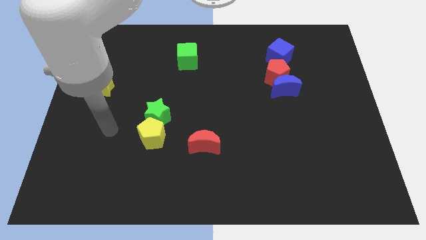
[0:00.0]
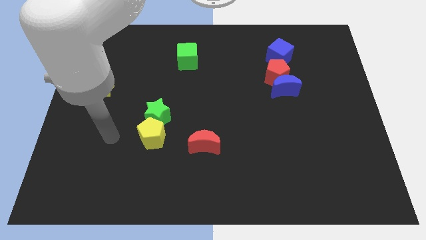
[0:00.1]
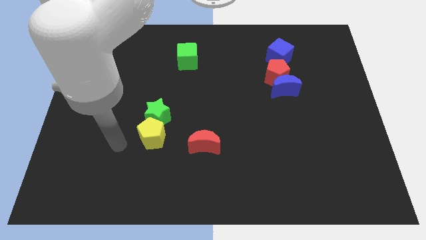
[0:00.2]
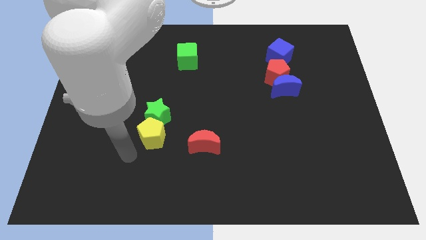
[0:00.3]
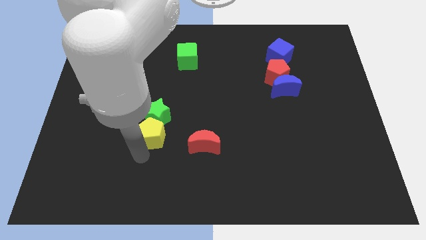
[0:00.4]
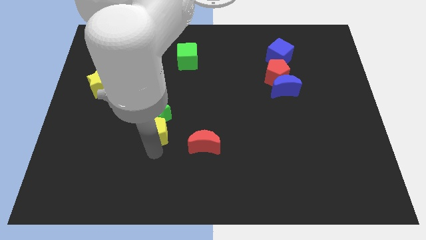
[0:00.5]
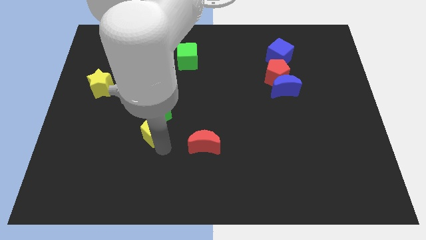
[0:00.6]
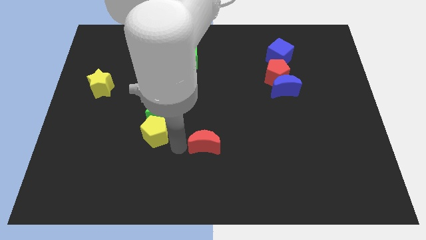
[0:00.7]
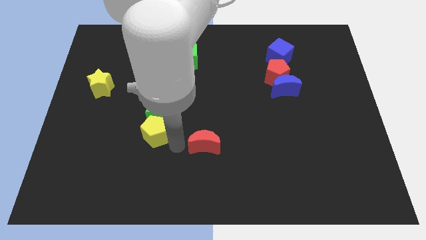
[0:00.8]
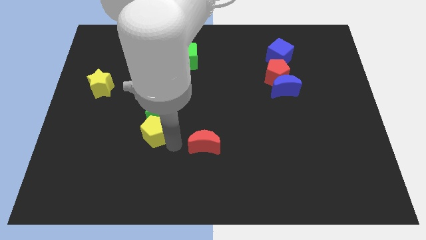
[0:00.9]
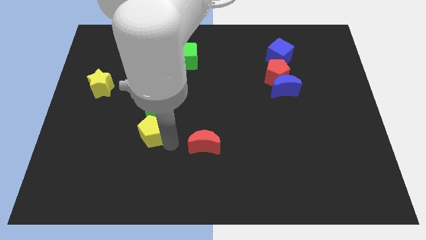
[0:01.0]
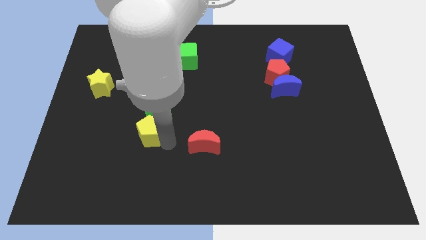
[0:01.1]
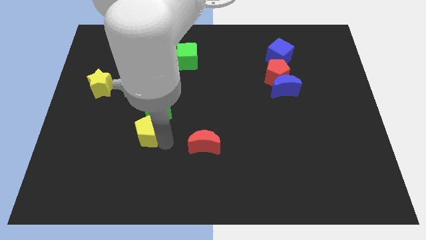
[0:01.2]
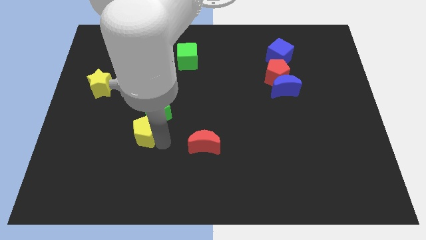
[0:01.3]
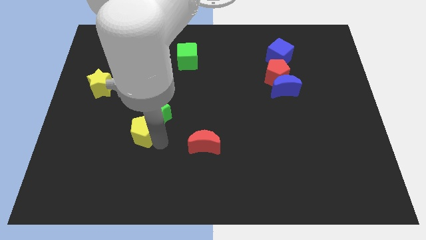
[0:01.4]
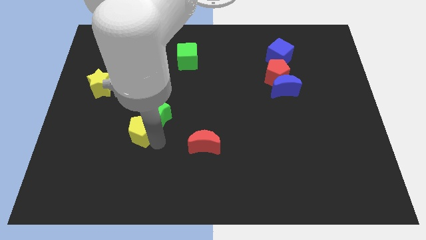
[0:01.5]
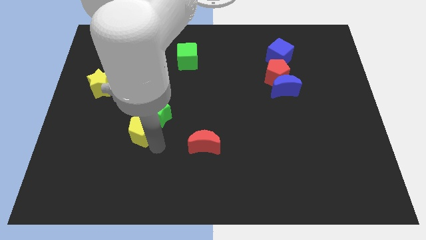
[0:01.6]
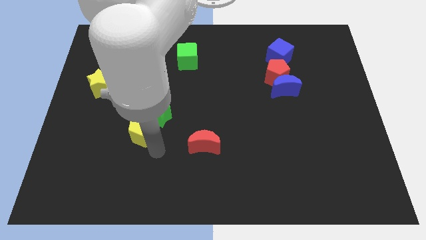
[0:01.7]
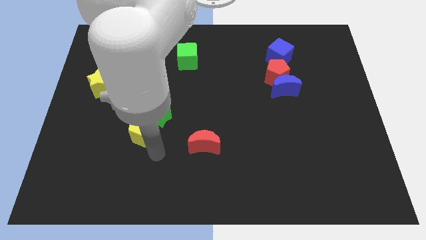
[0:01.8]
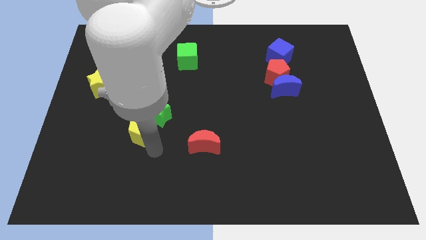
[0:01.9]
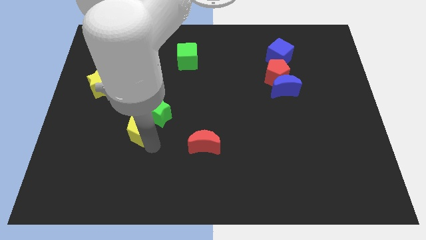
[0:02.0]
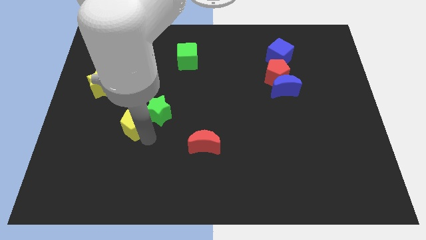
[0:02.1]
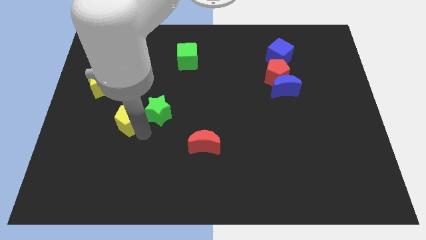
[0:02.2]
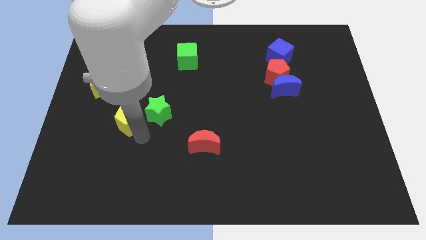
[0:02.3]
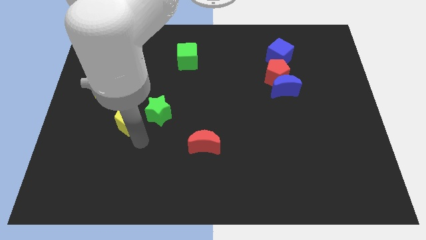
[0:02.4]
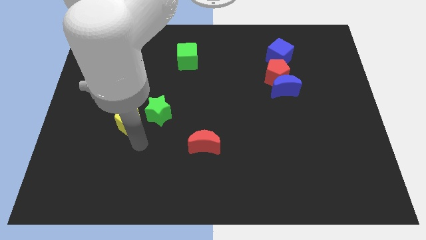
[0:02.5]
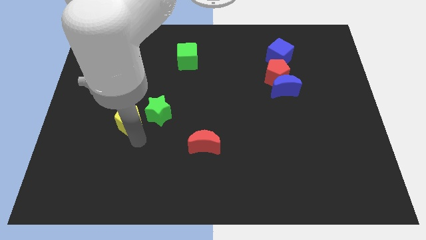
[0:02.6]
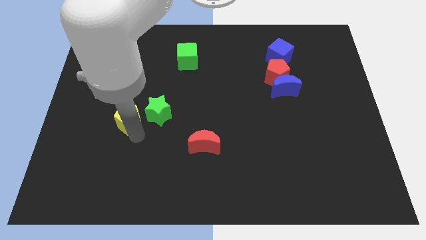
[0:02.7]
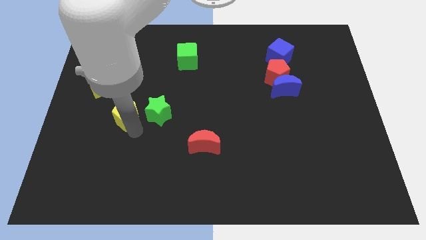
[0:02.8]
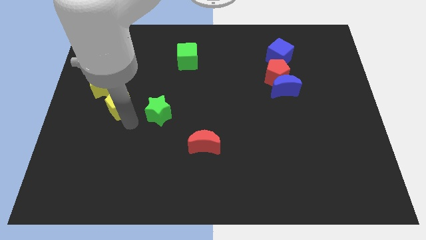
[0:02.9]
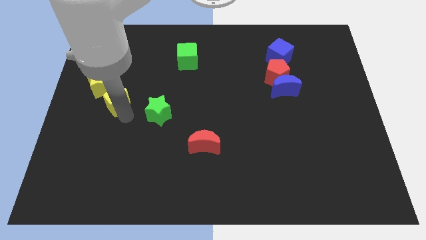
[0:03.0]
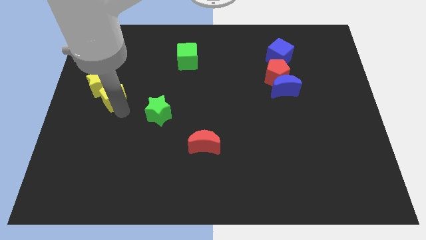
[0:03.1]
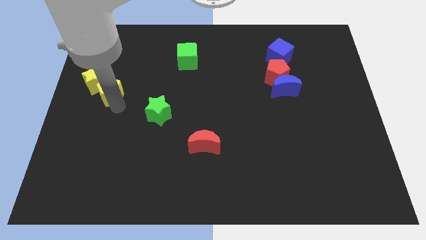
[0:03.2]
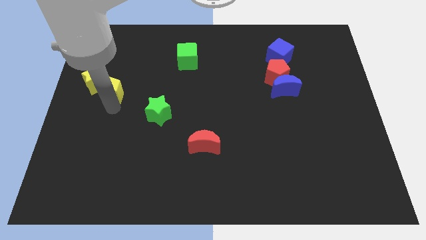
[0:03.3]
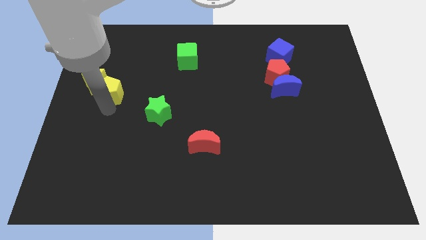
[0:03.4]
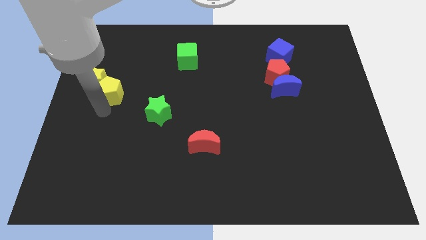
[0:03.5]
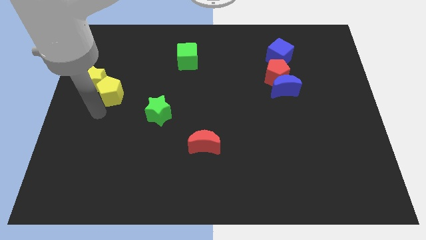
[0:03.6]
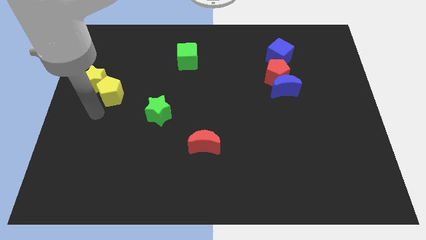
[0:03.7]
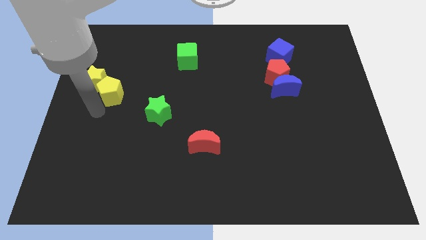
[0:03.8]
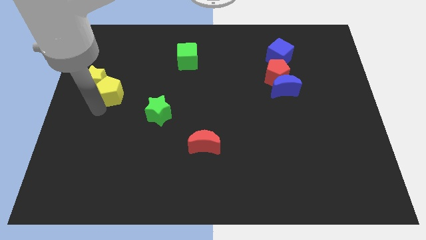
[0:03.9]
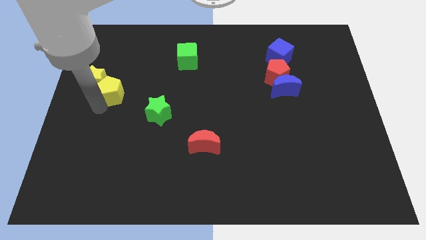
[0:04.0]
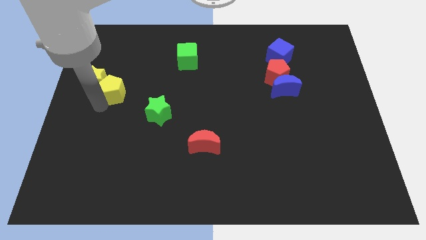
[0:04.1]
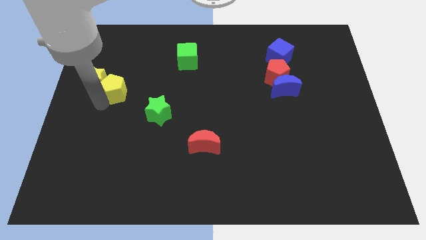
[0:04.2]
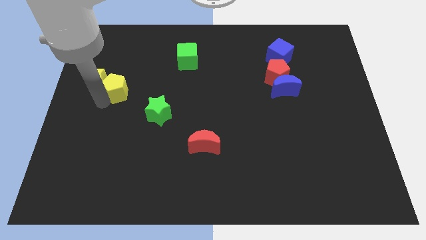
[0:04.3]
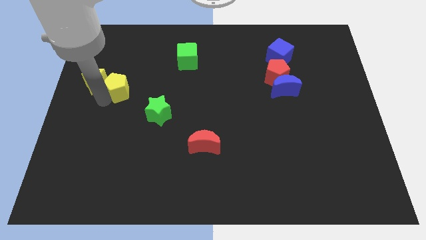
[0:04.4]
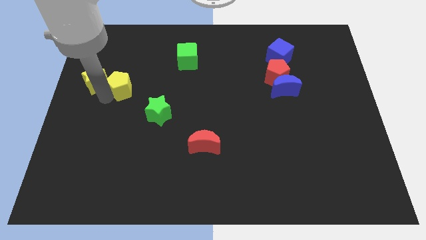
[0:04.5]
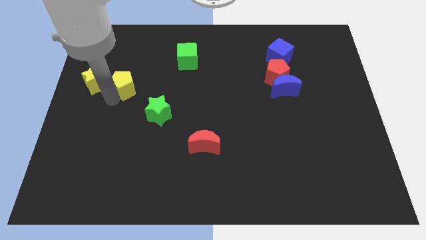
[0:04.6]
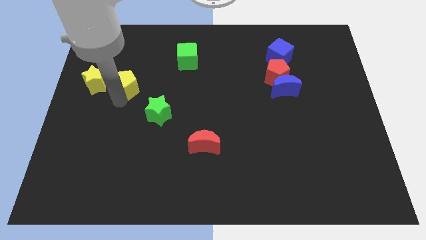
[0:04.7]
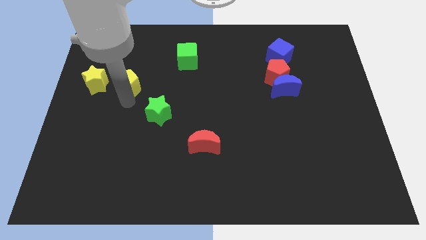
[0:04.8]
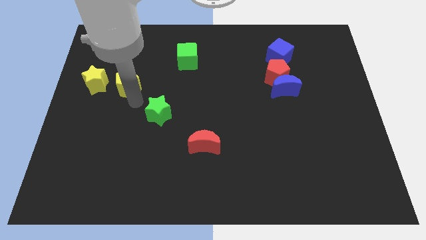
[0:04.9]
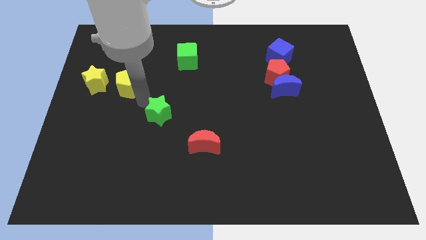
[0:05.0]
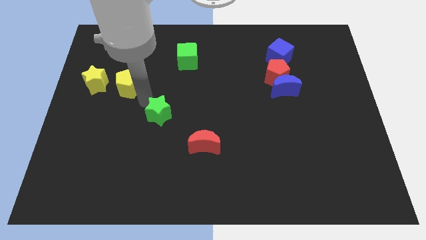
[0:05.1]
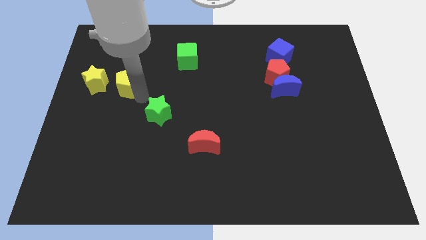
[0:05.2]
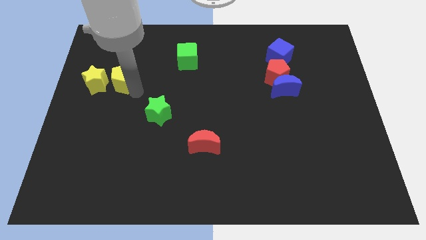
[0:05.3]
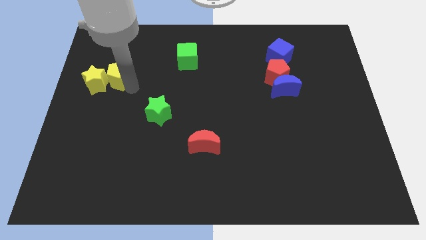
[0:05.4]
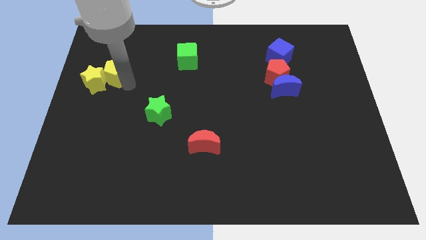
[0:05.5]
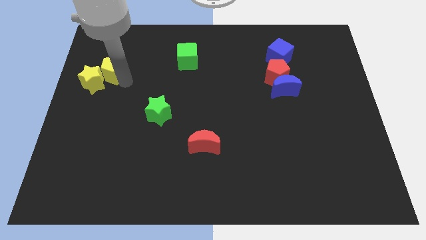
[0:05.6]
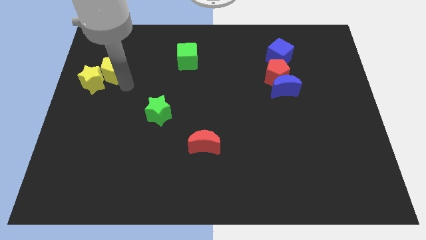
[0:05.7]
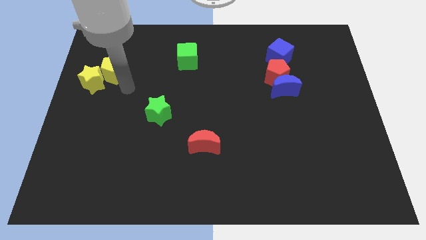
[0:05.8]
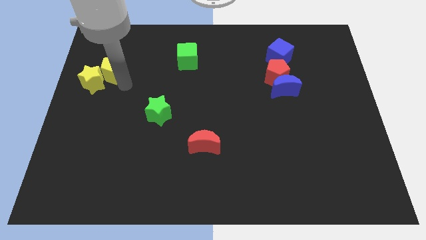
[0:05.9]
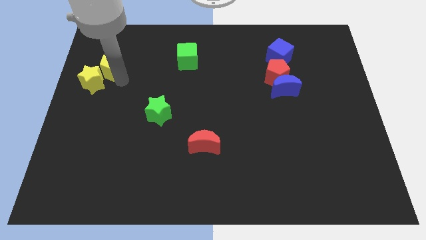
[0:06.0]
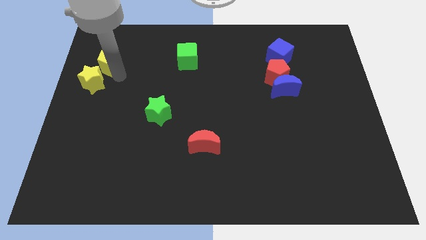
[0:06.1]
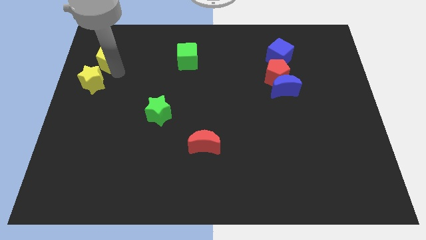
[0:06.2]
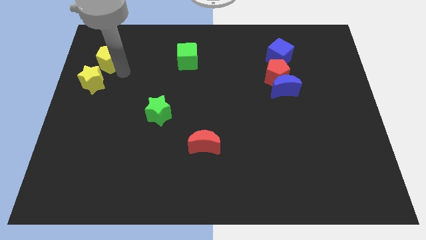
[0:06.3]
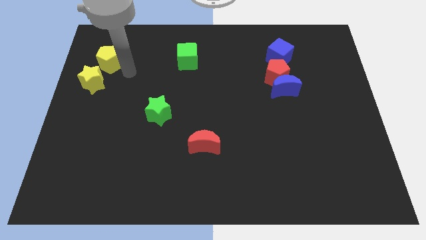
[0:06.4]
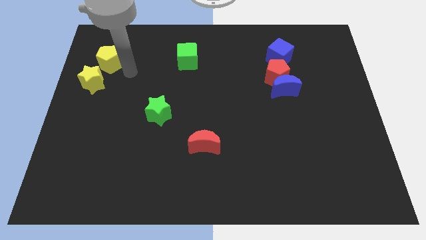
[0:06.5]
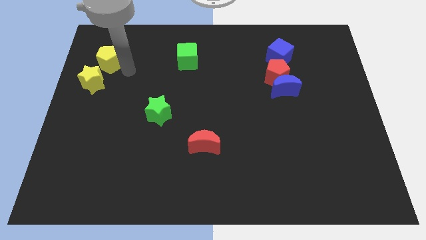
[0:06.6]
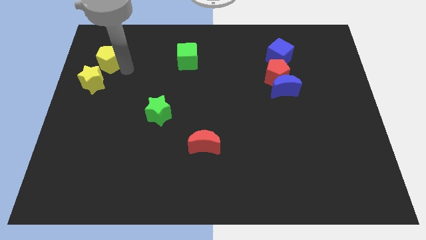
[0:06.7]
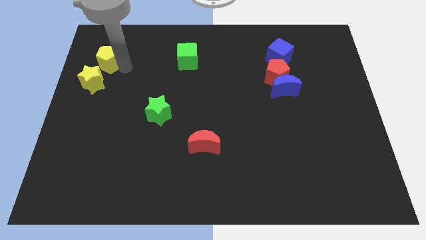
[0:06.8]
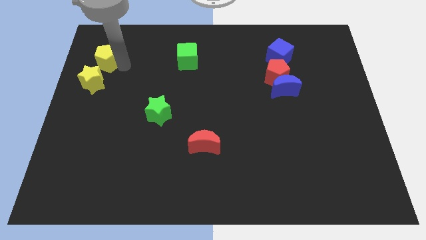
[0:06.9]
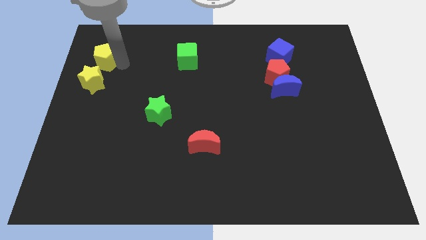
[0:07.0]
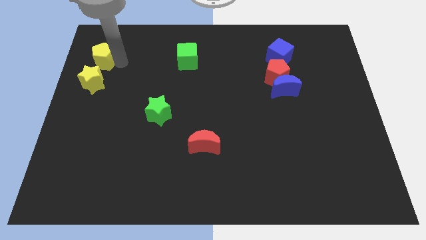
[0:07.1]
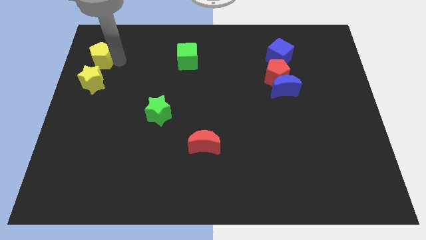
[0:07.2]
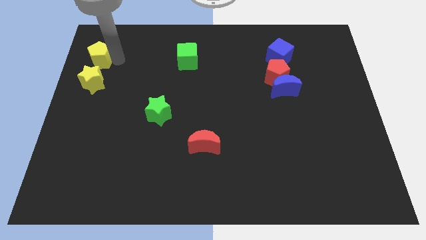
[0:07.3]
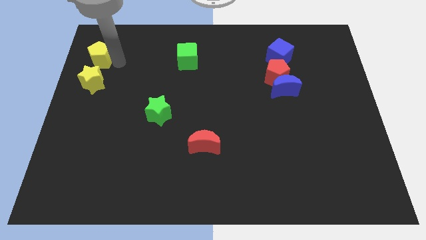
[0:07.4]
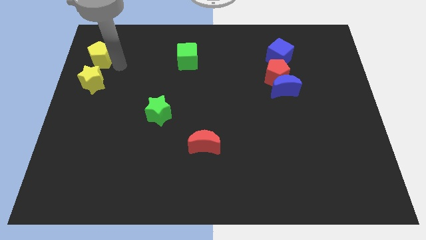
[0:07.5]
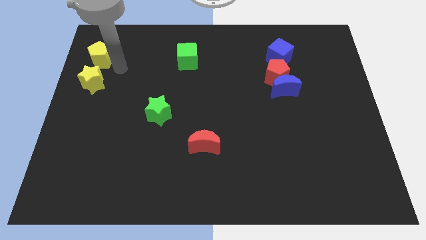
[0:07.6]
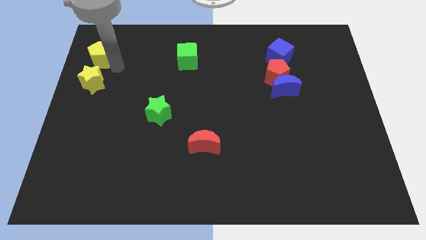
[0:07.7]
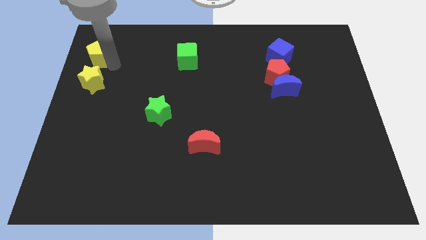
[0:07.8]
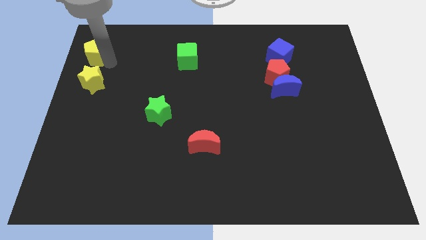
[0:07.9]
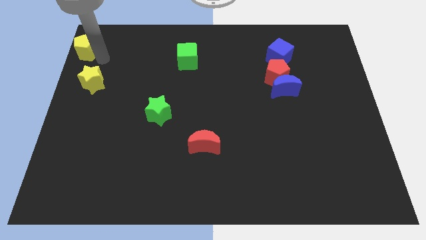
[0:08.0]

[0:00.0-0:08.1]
put the yellow pentagon to the upper left corner
